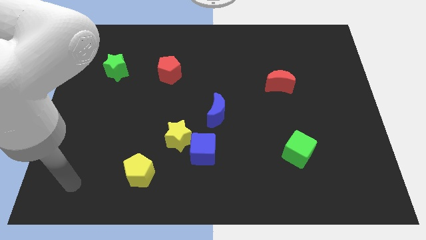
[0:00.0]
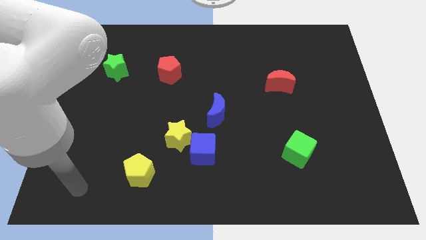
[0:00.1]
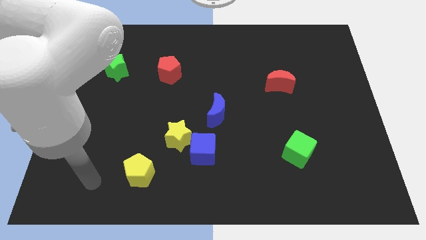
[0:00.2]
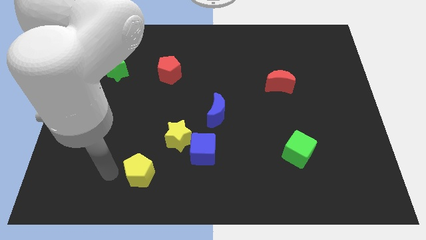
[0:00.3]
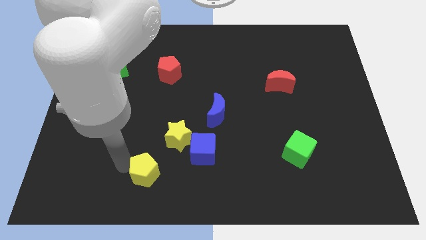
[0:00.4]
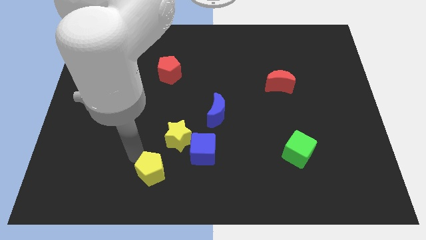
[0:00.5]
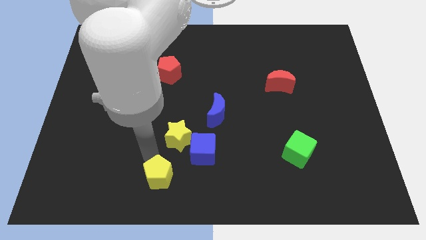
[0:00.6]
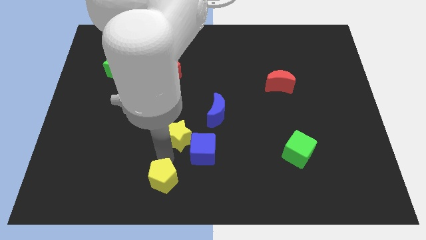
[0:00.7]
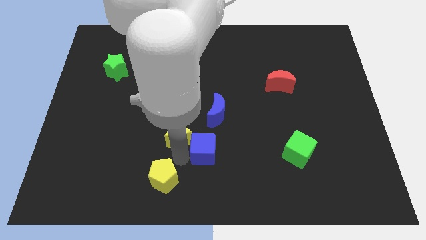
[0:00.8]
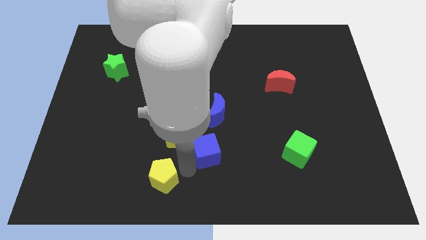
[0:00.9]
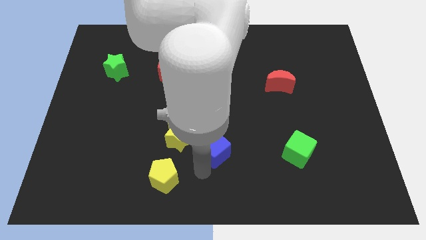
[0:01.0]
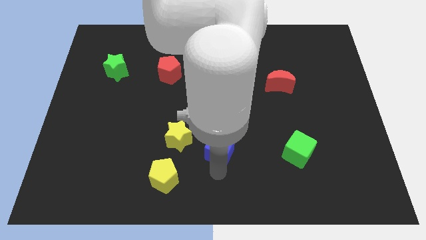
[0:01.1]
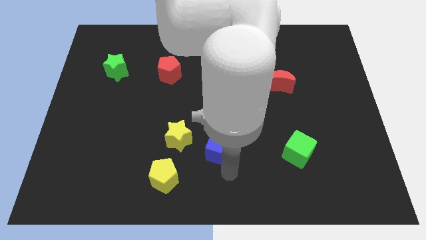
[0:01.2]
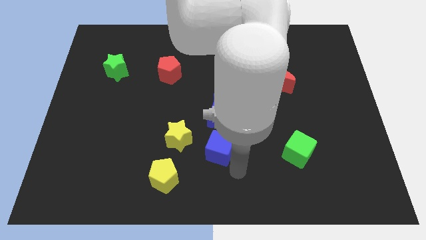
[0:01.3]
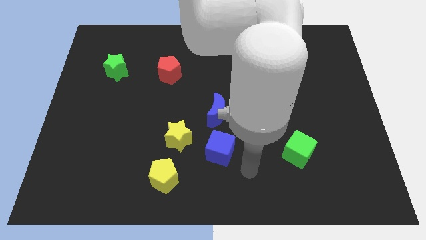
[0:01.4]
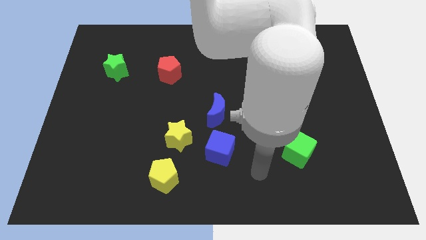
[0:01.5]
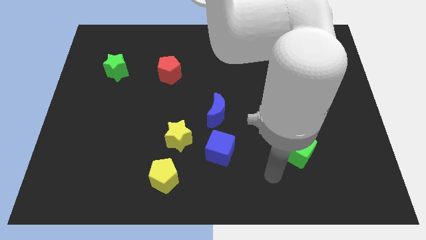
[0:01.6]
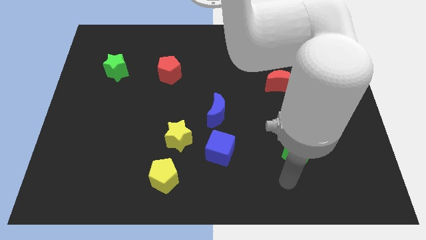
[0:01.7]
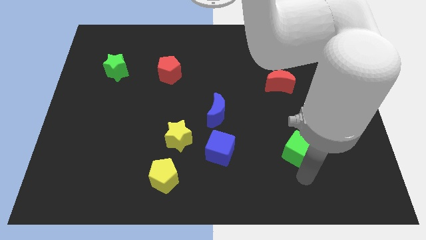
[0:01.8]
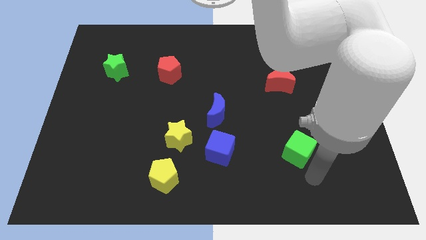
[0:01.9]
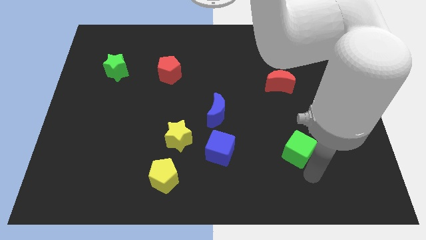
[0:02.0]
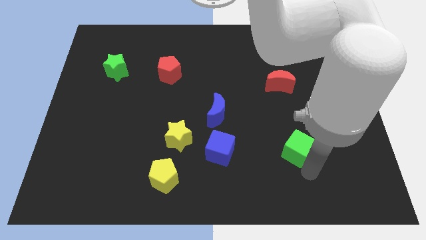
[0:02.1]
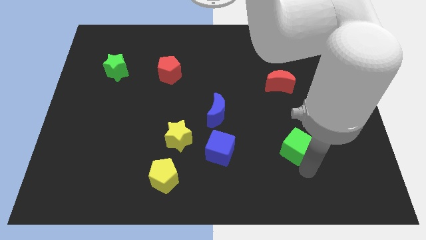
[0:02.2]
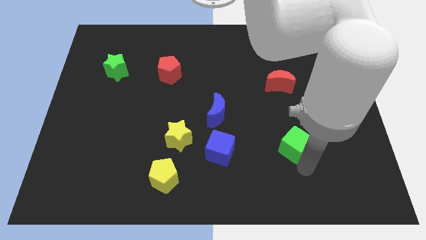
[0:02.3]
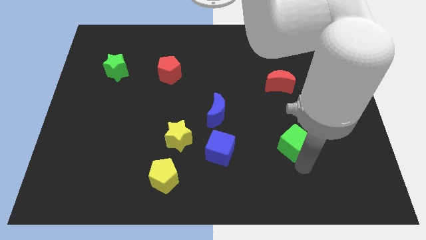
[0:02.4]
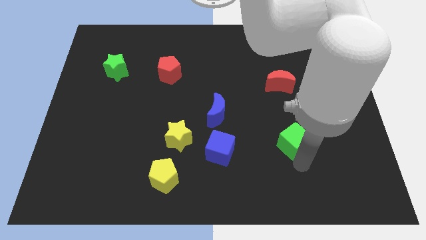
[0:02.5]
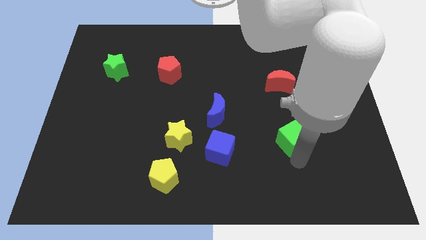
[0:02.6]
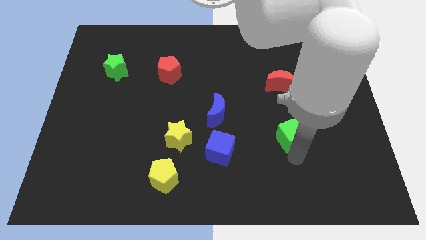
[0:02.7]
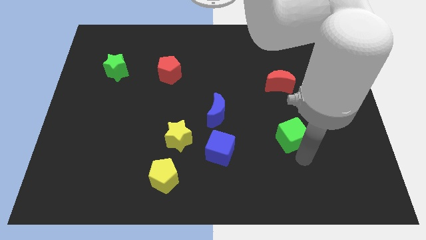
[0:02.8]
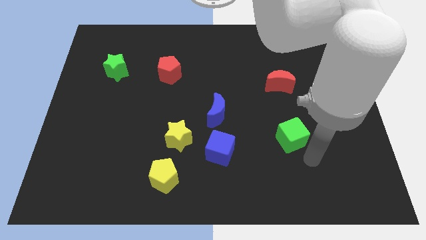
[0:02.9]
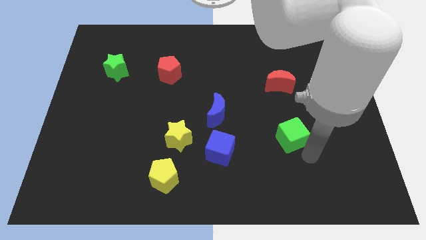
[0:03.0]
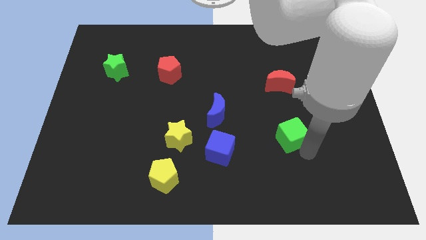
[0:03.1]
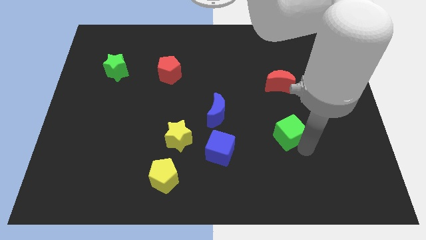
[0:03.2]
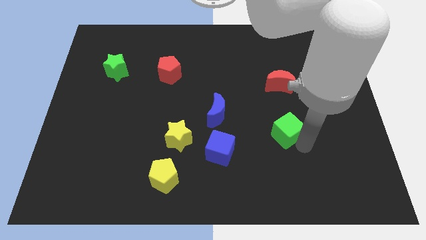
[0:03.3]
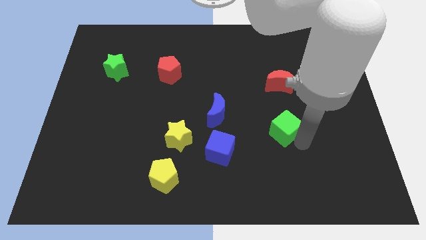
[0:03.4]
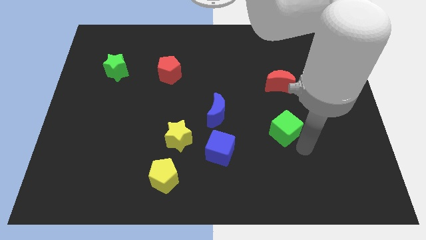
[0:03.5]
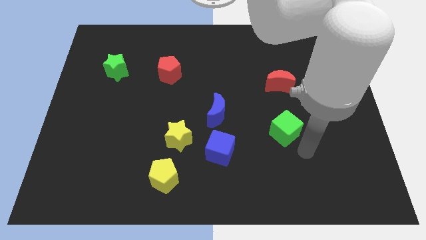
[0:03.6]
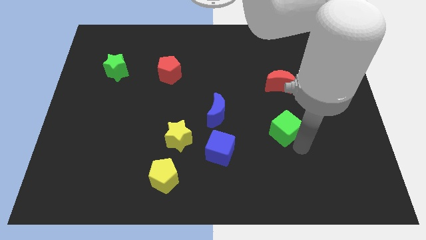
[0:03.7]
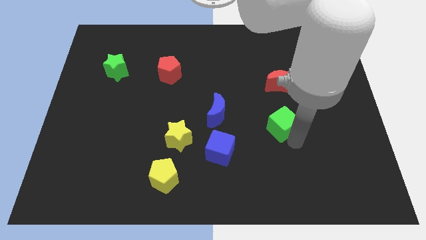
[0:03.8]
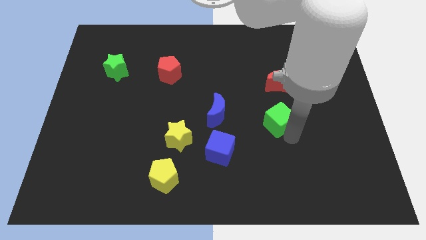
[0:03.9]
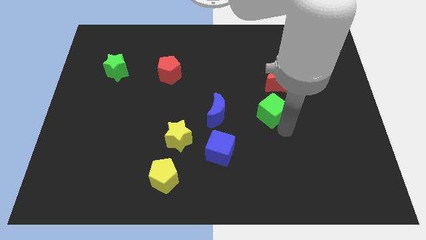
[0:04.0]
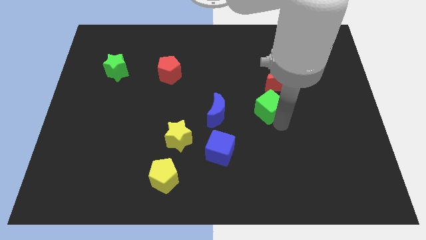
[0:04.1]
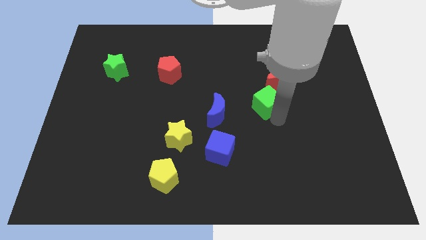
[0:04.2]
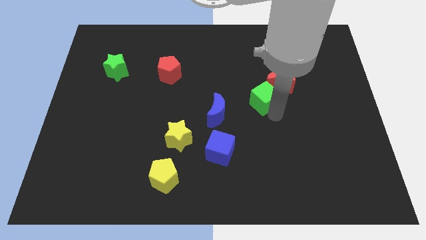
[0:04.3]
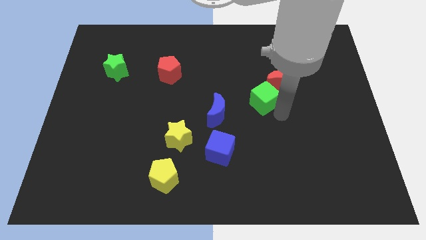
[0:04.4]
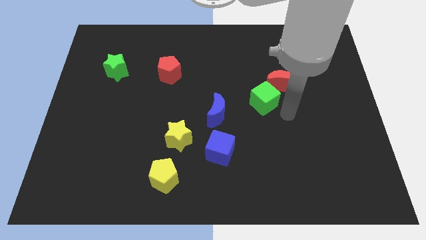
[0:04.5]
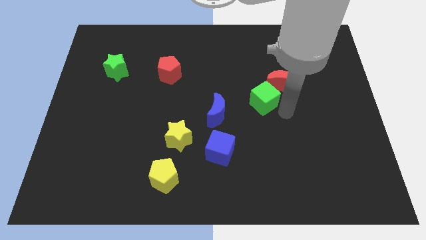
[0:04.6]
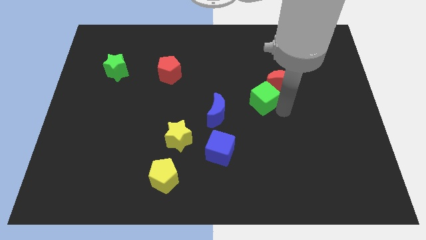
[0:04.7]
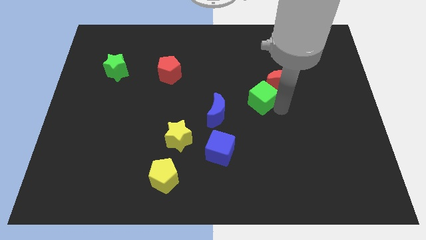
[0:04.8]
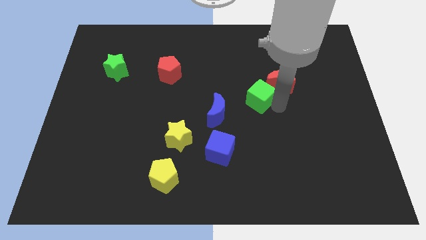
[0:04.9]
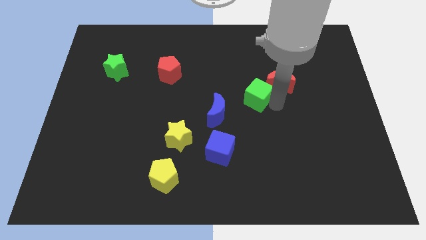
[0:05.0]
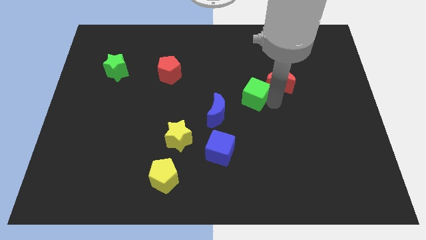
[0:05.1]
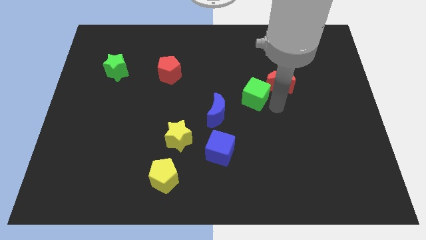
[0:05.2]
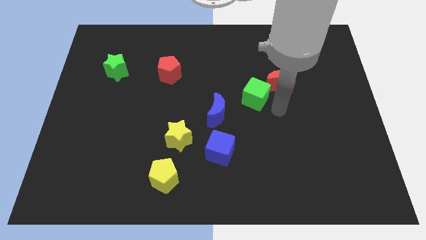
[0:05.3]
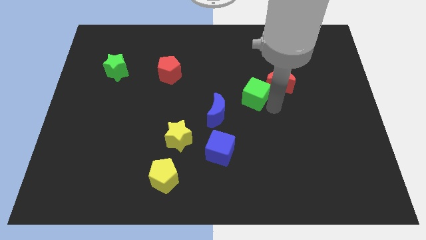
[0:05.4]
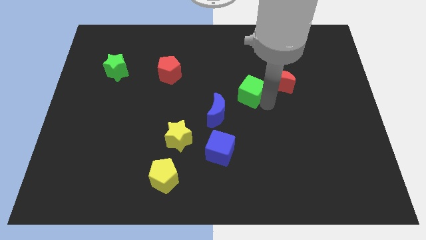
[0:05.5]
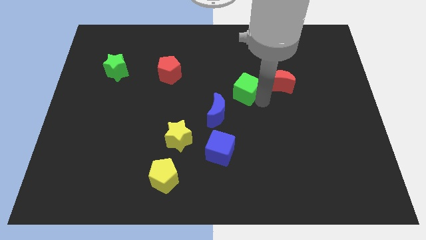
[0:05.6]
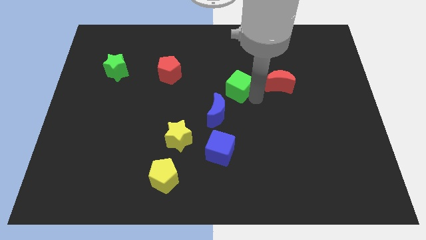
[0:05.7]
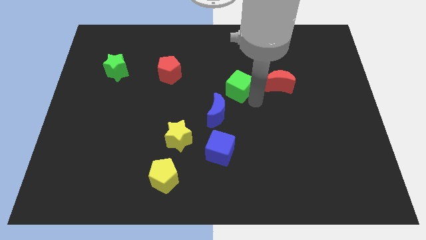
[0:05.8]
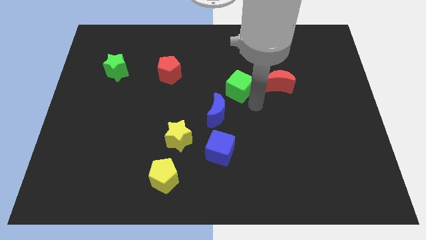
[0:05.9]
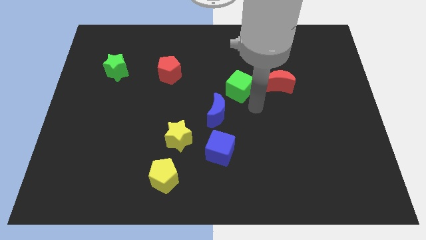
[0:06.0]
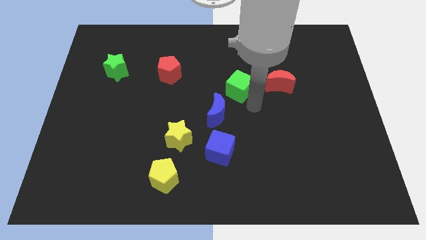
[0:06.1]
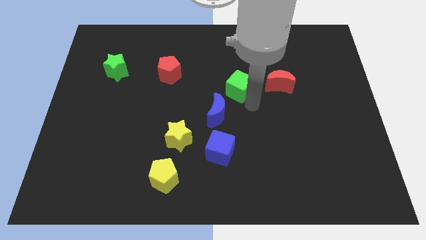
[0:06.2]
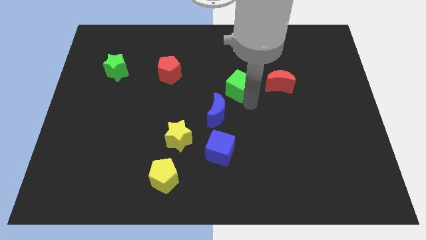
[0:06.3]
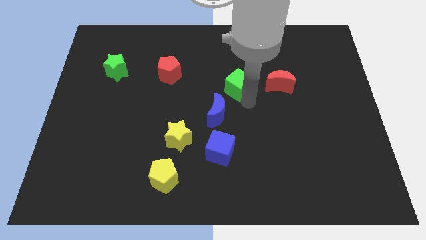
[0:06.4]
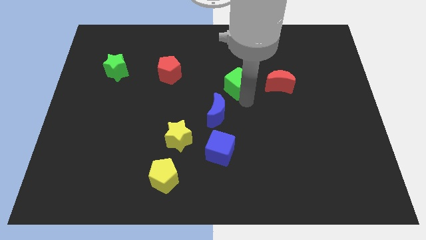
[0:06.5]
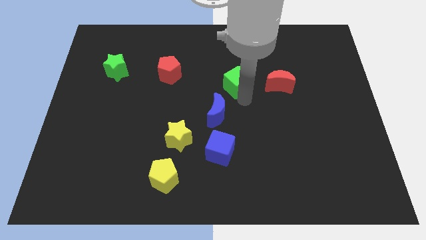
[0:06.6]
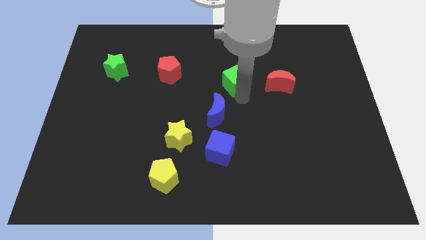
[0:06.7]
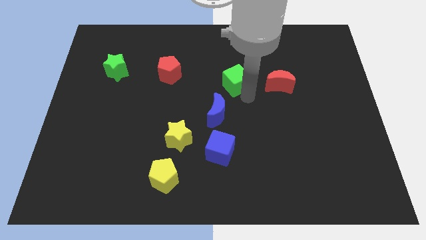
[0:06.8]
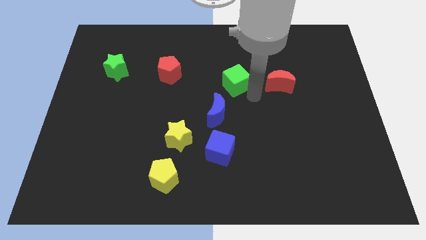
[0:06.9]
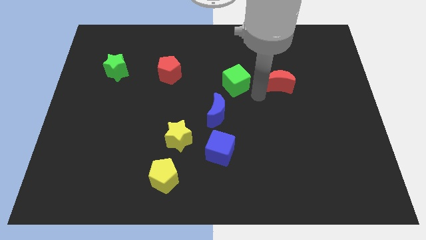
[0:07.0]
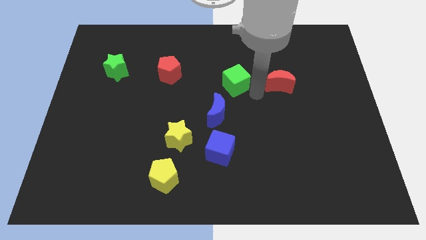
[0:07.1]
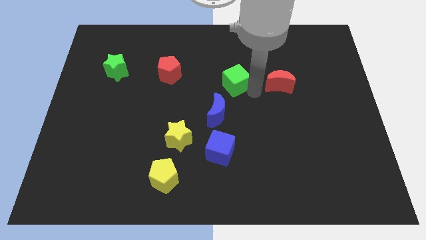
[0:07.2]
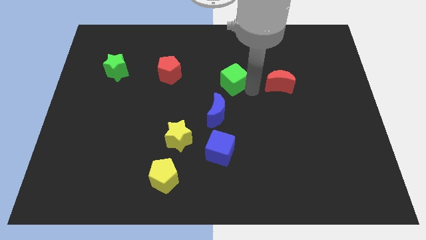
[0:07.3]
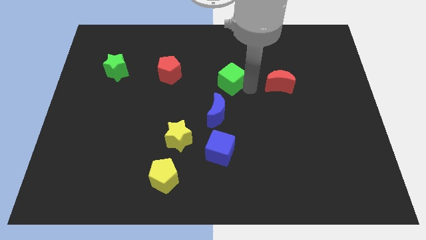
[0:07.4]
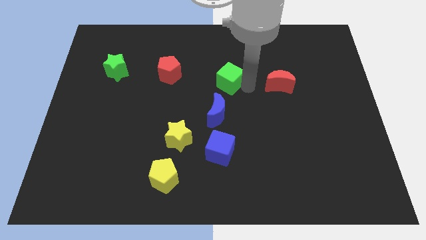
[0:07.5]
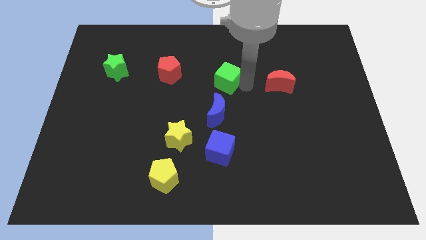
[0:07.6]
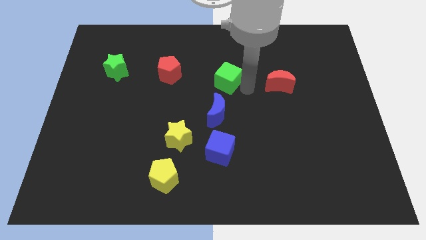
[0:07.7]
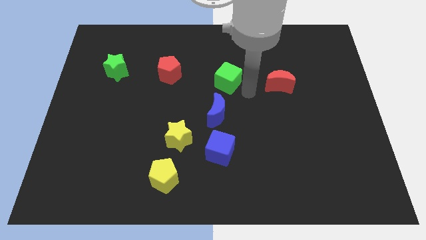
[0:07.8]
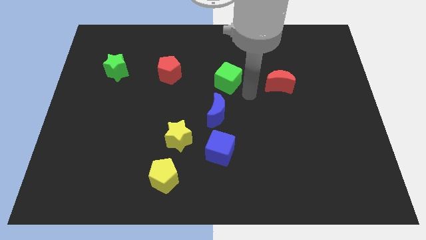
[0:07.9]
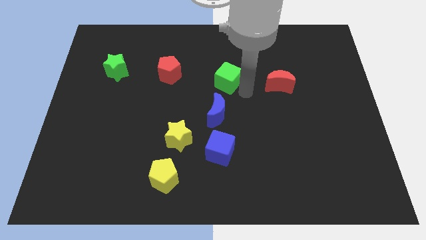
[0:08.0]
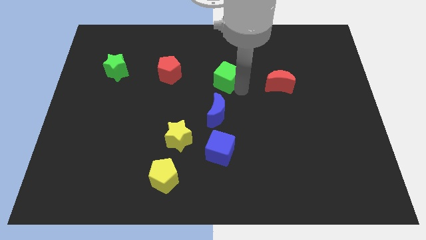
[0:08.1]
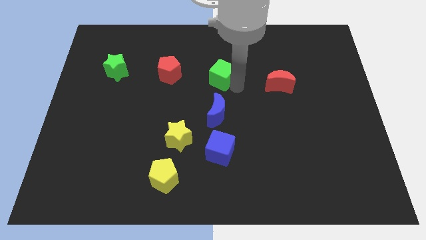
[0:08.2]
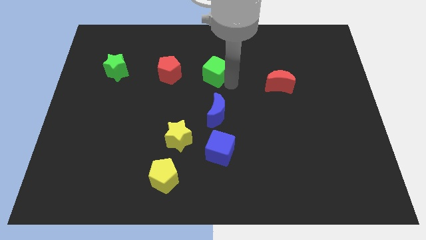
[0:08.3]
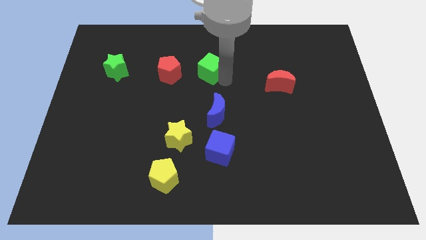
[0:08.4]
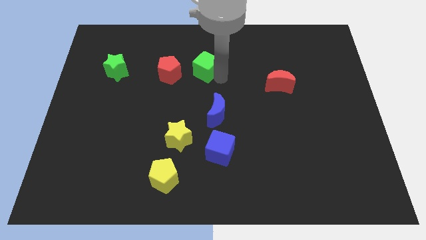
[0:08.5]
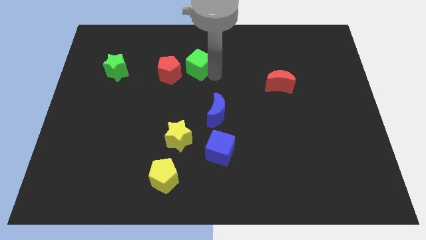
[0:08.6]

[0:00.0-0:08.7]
move the green cube to the top right of the red pentagon

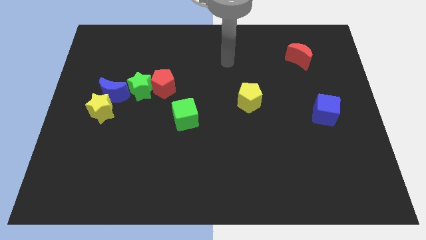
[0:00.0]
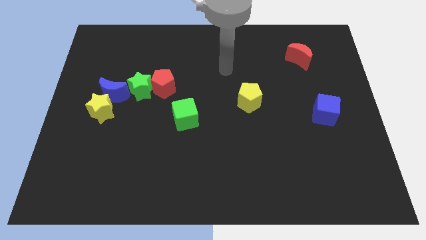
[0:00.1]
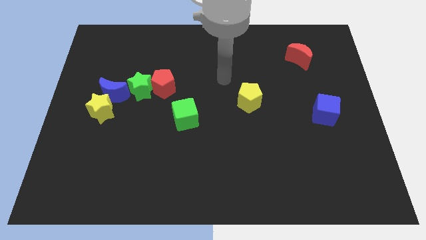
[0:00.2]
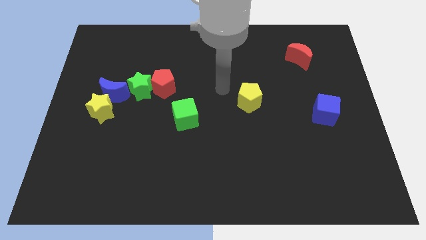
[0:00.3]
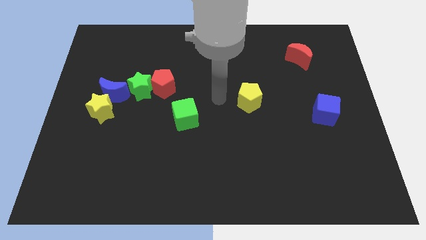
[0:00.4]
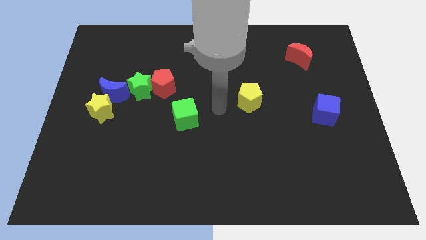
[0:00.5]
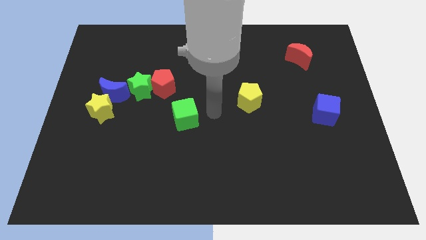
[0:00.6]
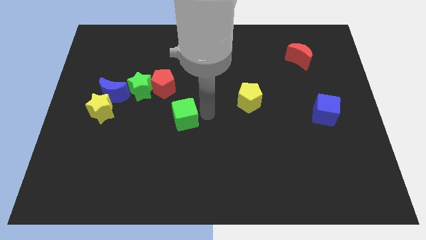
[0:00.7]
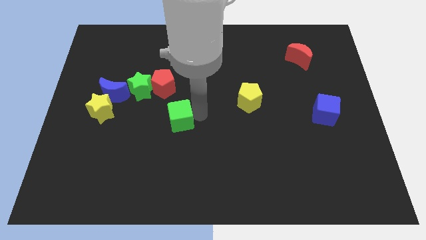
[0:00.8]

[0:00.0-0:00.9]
move the green cube below the red pentagon
